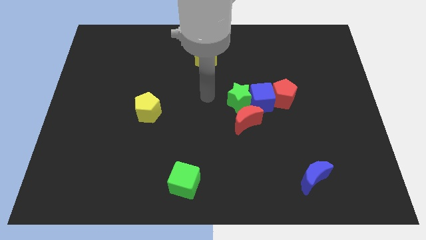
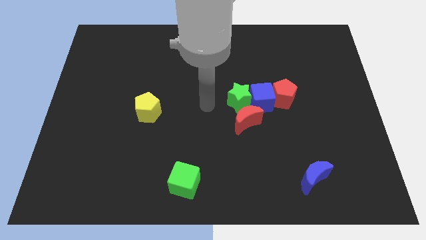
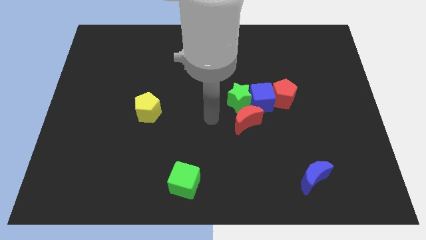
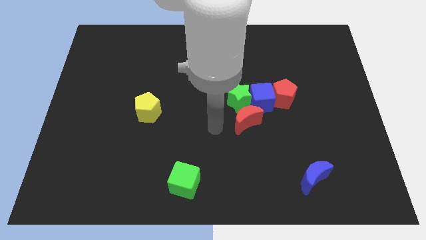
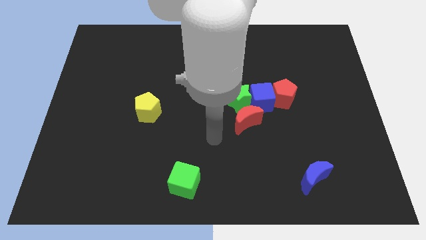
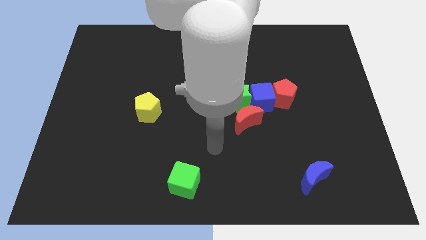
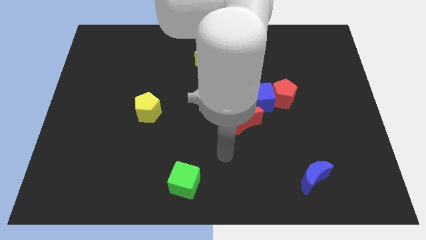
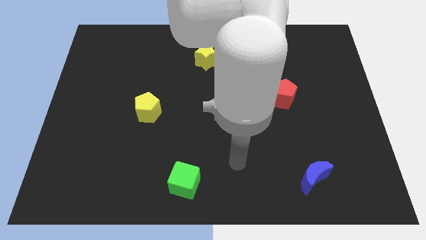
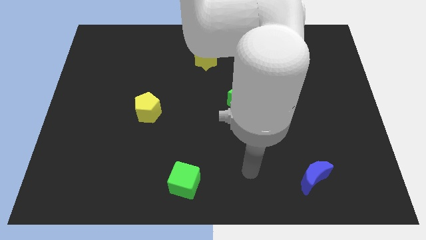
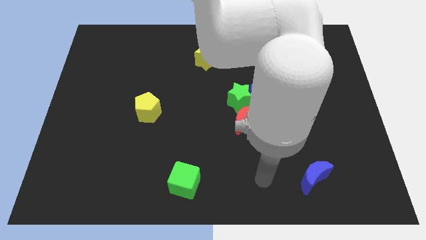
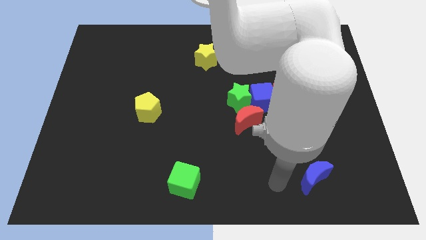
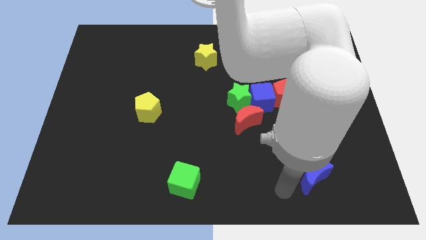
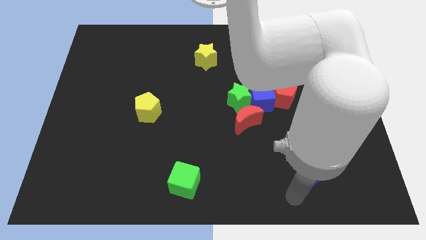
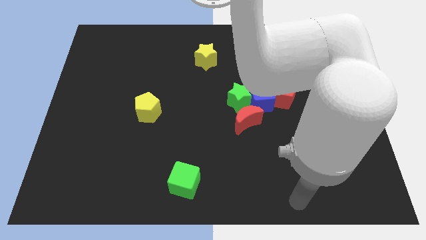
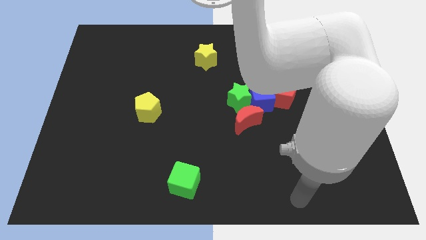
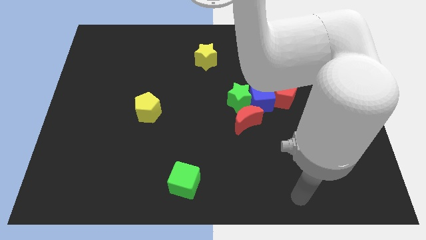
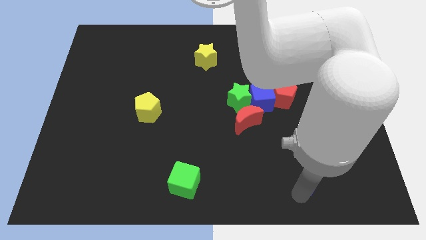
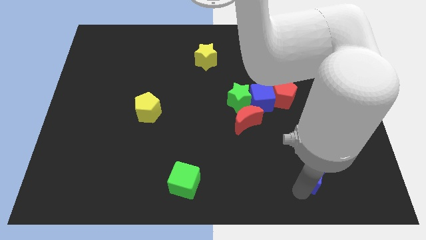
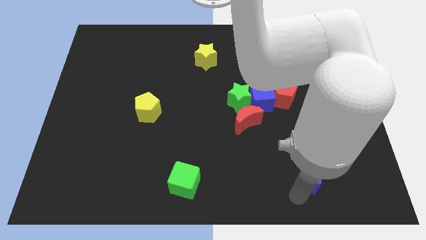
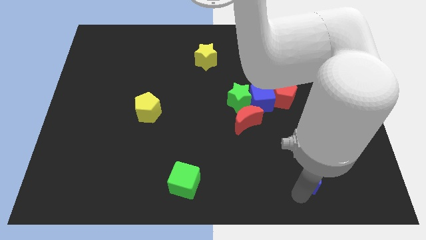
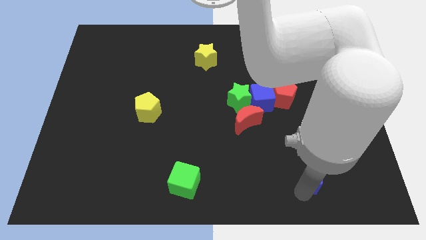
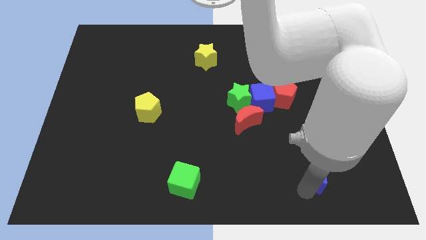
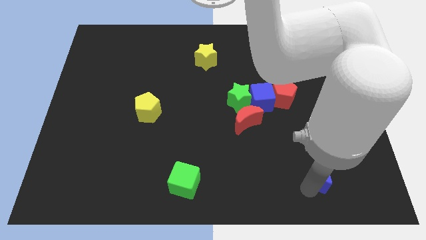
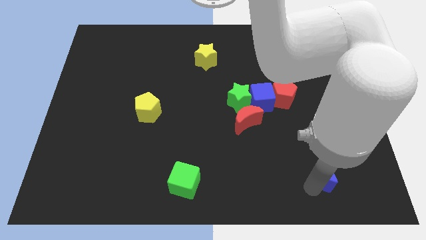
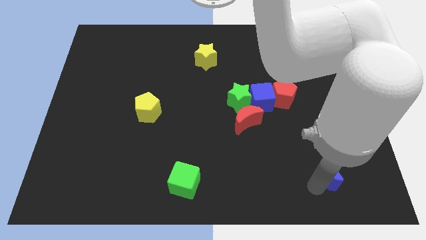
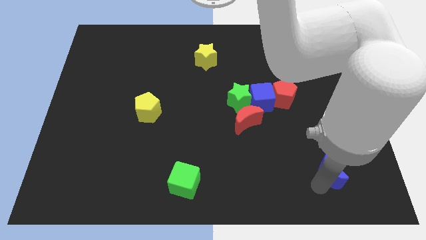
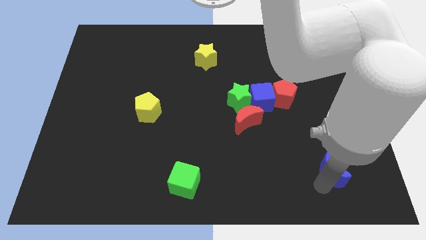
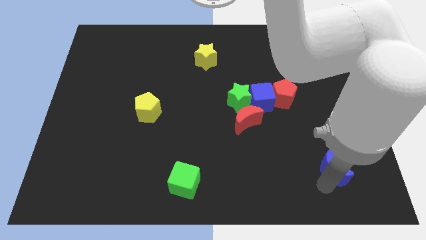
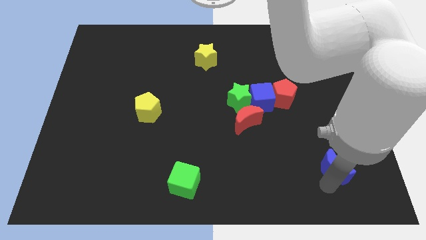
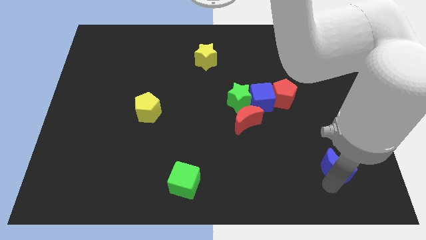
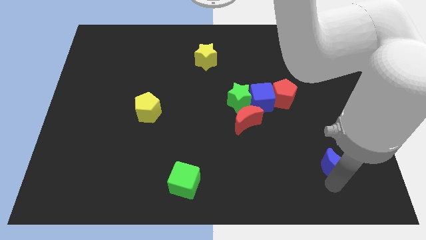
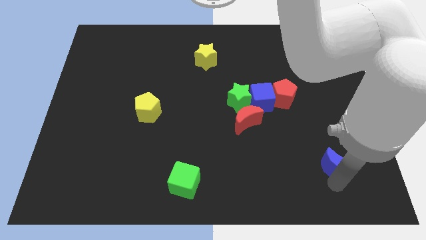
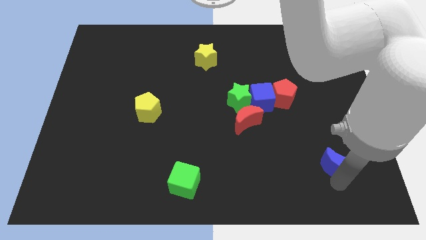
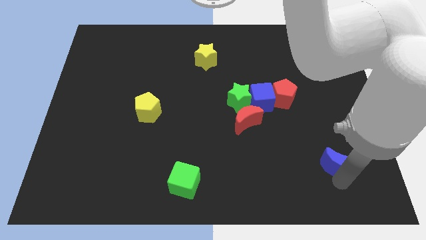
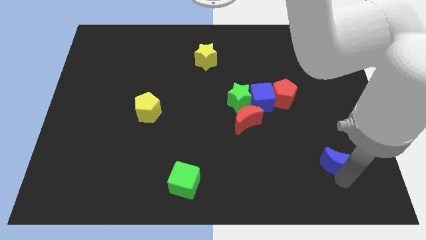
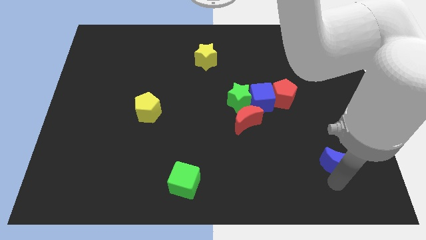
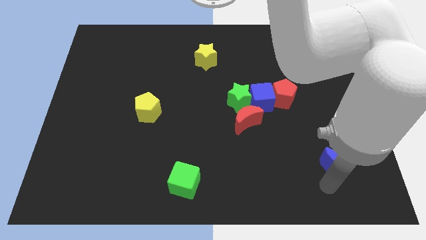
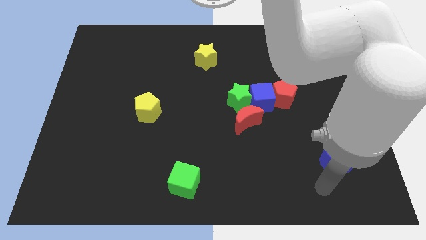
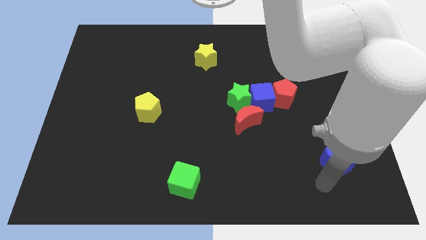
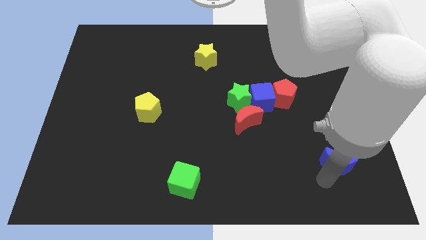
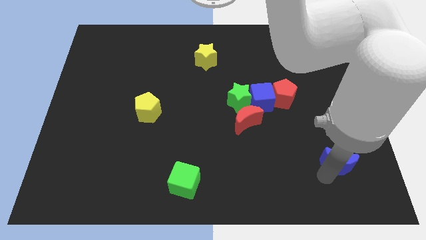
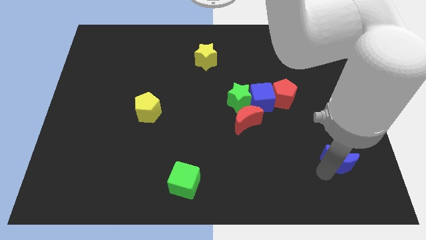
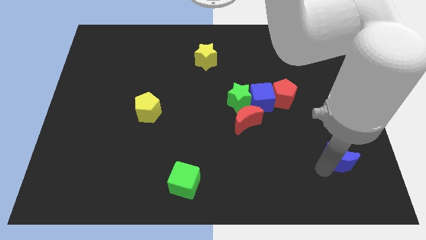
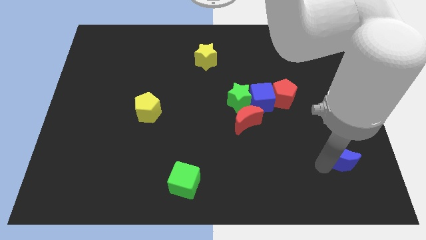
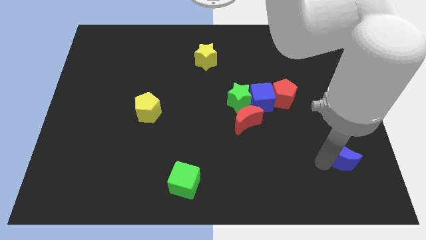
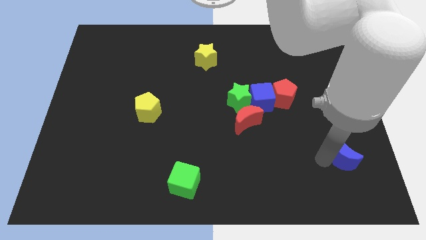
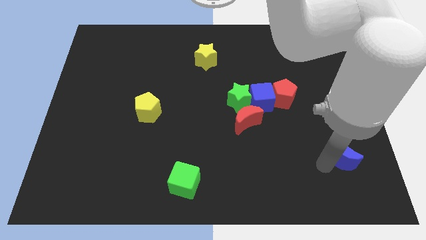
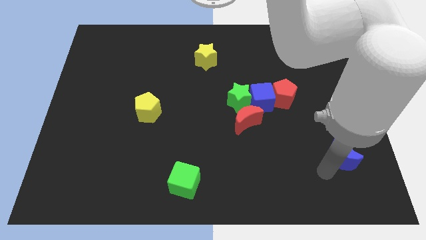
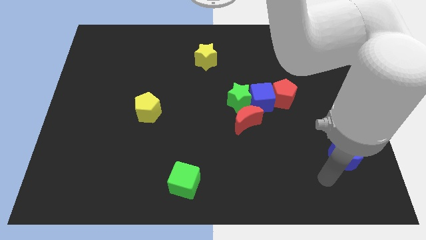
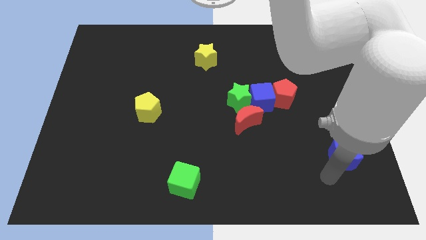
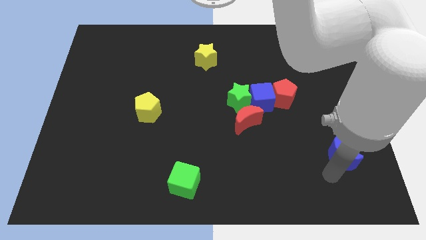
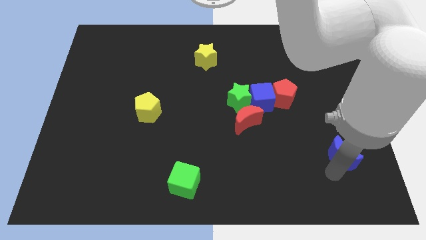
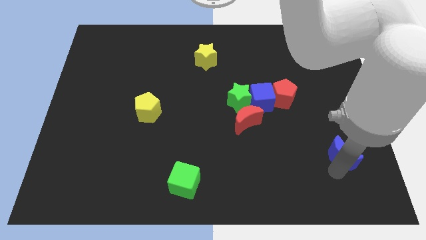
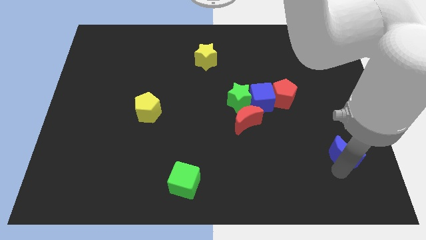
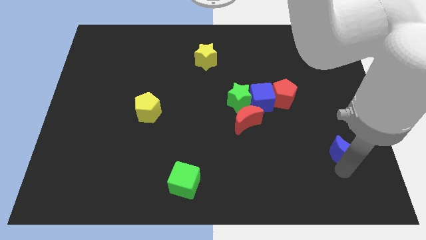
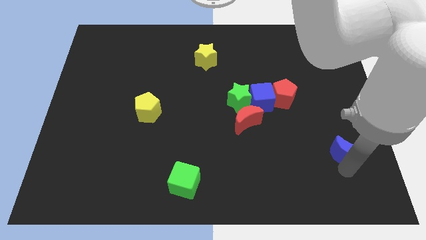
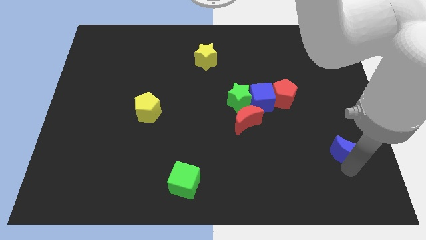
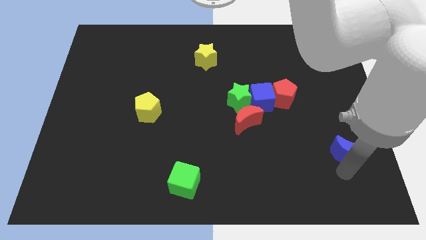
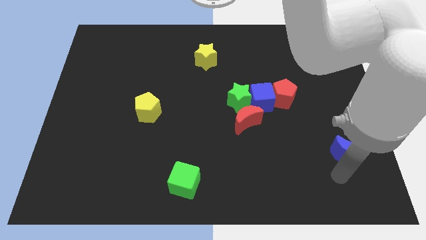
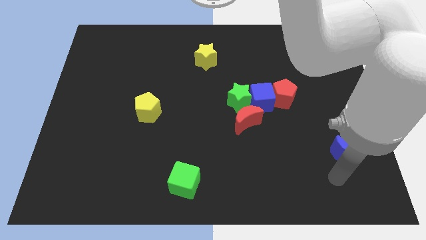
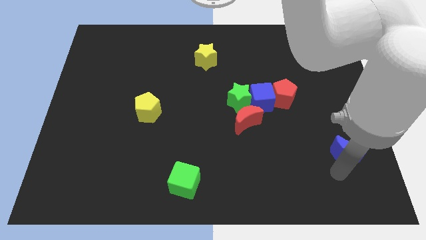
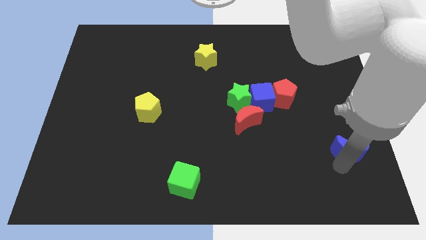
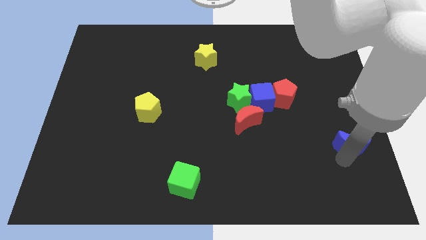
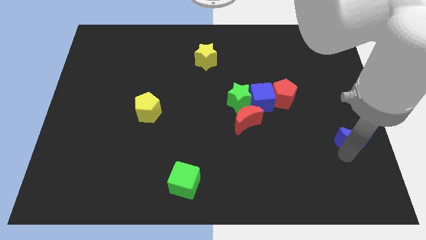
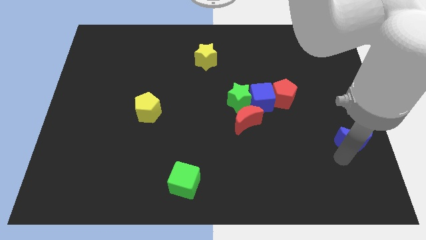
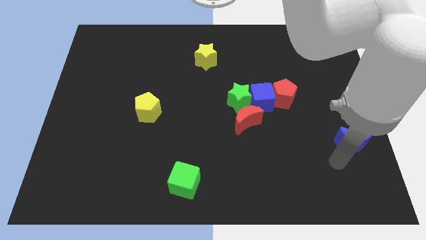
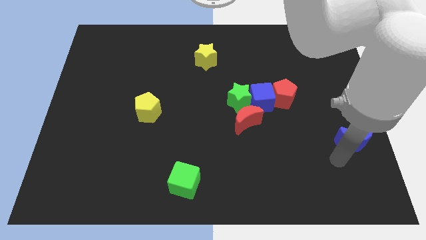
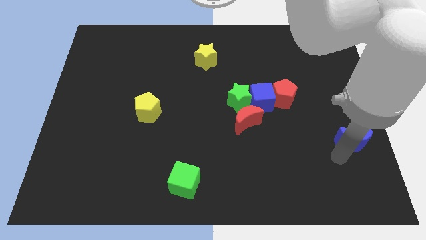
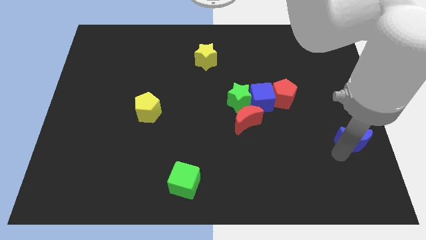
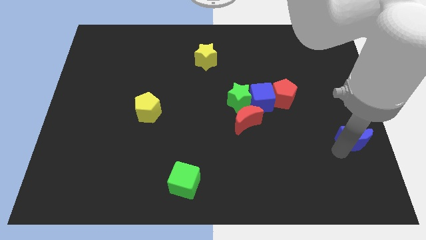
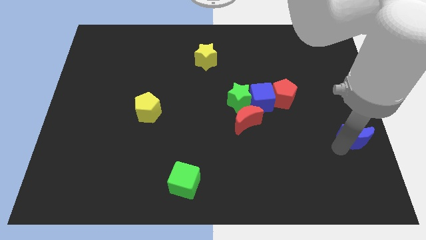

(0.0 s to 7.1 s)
push the blue moon to the right side
